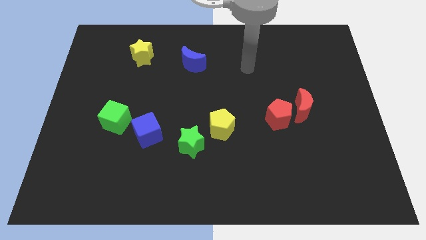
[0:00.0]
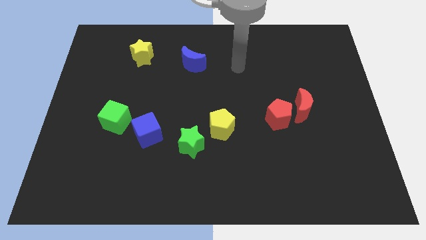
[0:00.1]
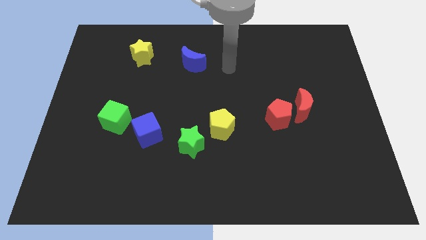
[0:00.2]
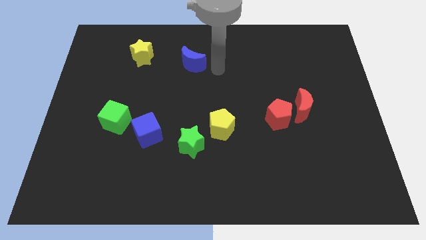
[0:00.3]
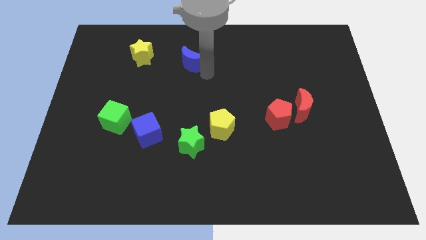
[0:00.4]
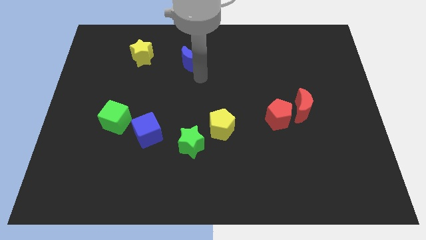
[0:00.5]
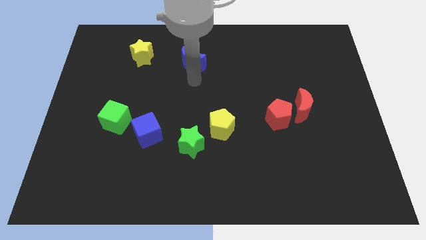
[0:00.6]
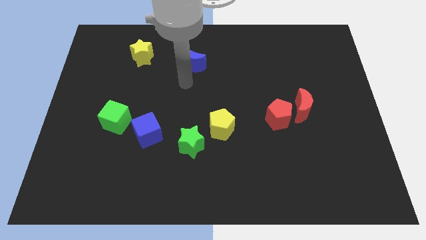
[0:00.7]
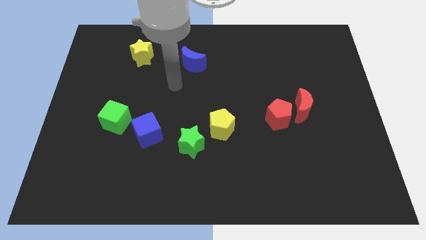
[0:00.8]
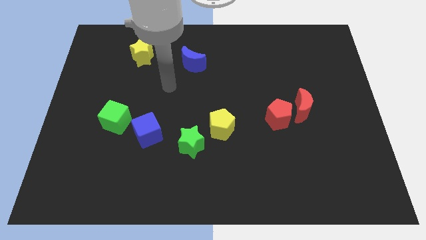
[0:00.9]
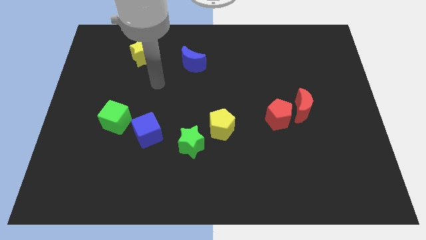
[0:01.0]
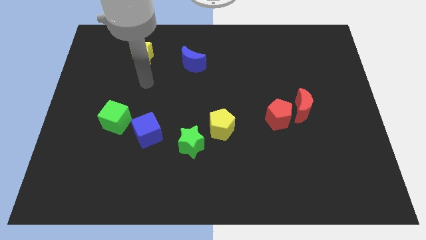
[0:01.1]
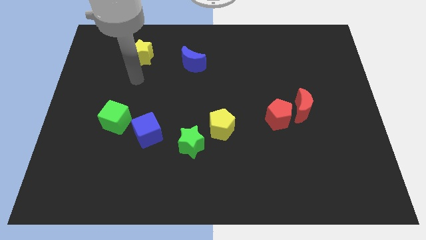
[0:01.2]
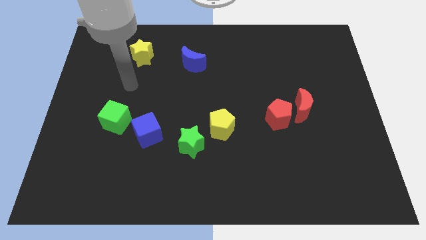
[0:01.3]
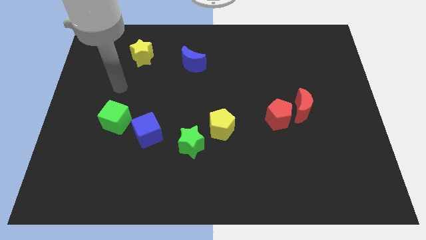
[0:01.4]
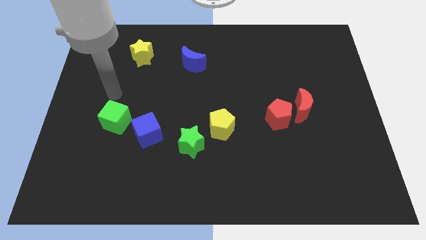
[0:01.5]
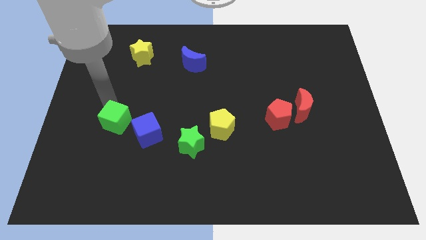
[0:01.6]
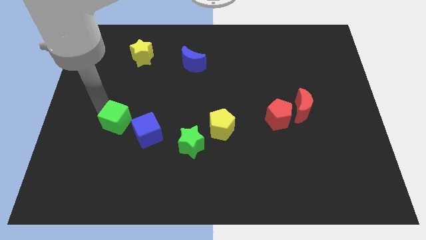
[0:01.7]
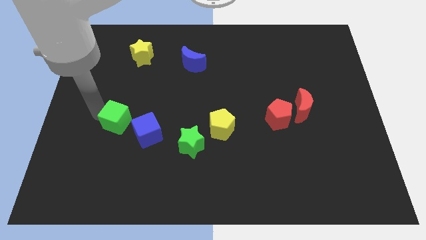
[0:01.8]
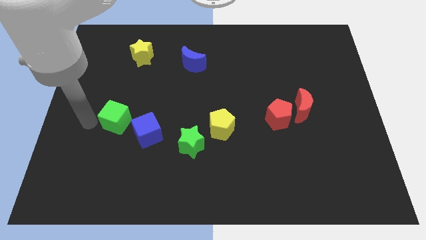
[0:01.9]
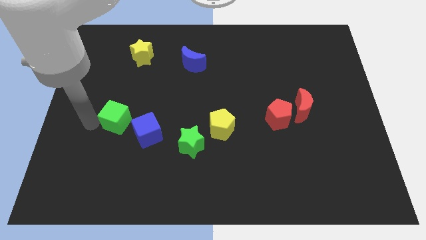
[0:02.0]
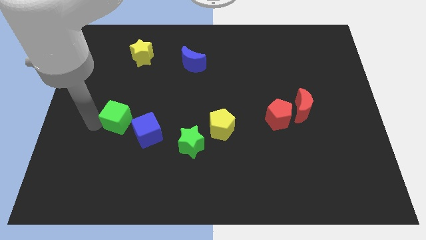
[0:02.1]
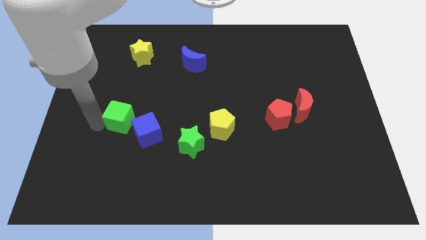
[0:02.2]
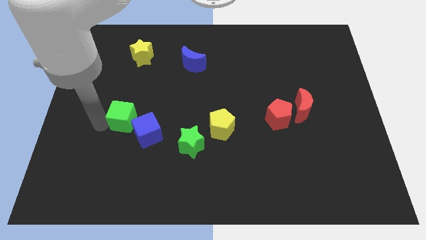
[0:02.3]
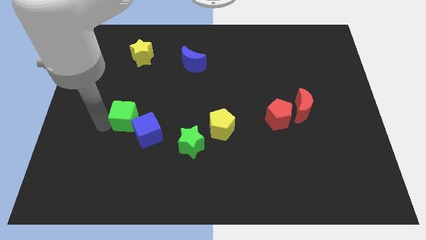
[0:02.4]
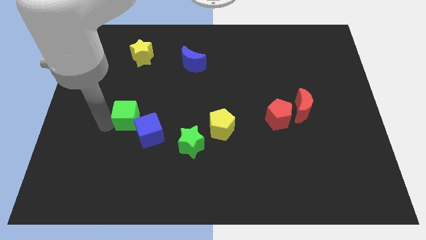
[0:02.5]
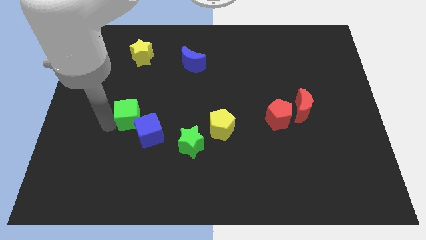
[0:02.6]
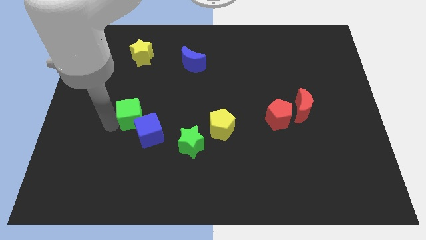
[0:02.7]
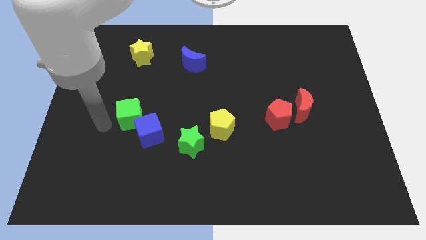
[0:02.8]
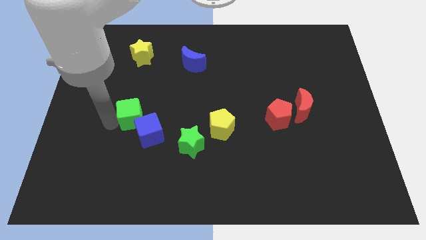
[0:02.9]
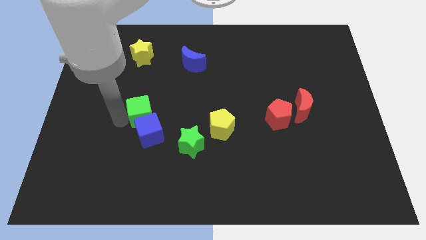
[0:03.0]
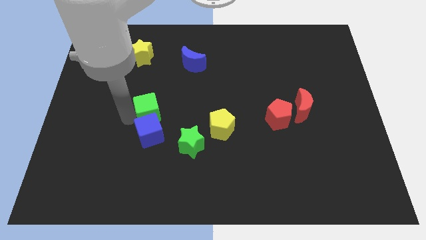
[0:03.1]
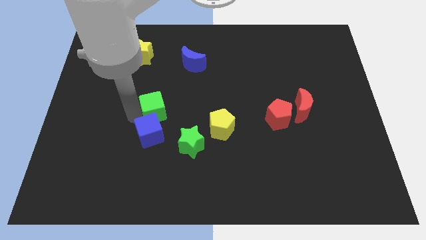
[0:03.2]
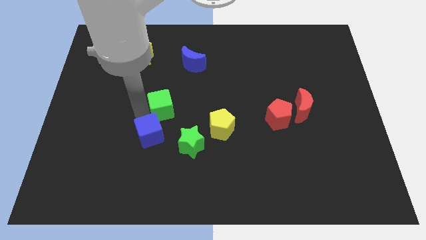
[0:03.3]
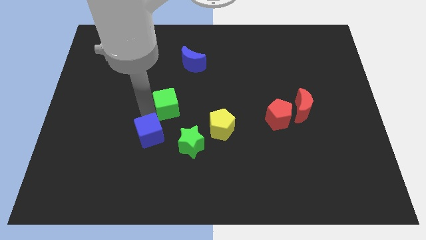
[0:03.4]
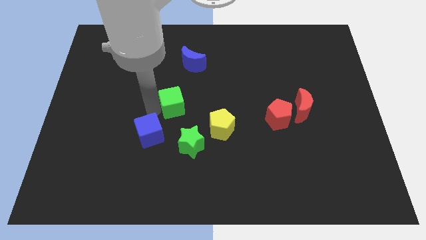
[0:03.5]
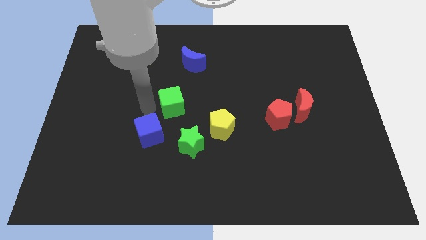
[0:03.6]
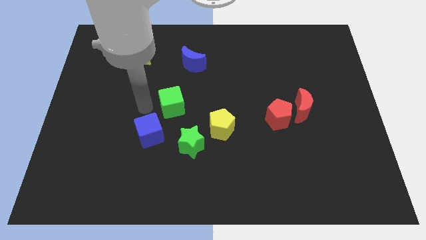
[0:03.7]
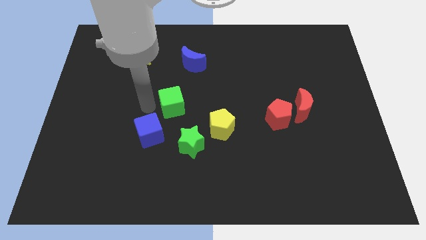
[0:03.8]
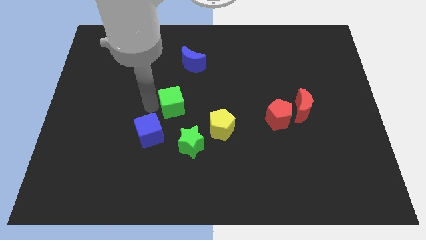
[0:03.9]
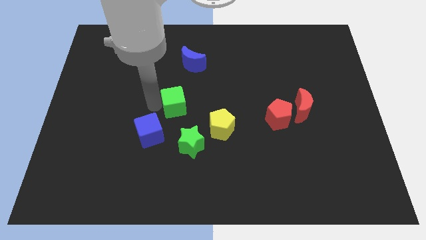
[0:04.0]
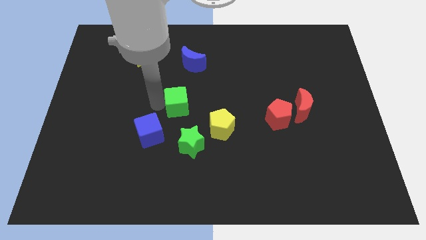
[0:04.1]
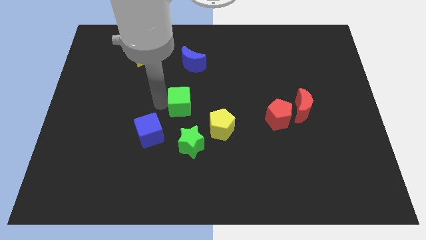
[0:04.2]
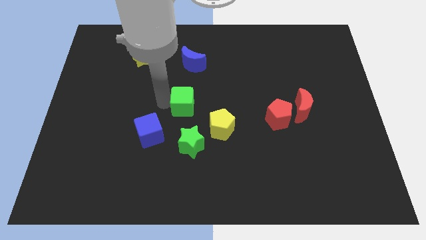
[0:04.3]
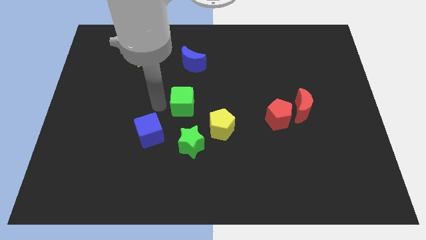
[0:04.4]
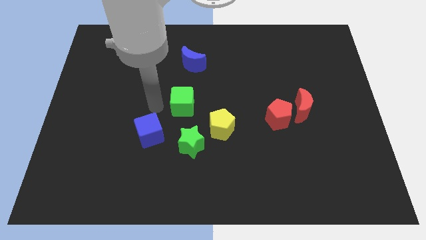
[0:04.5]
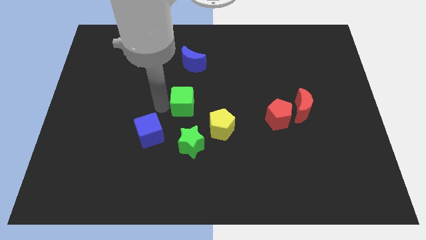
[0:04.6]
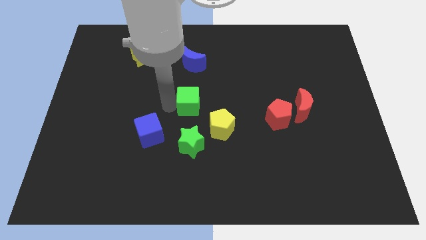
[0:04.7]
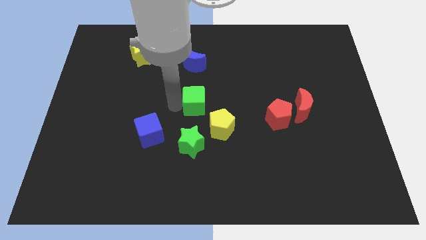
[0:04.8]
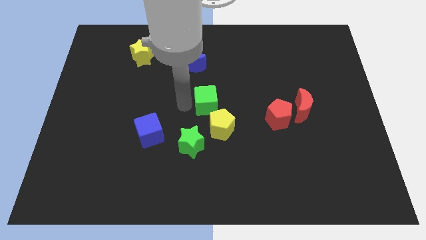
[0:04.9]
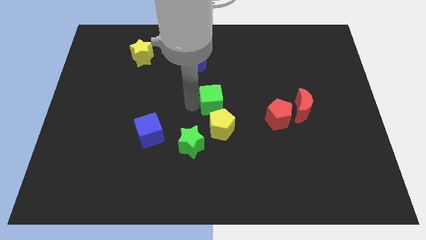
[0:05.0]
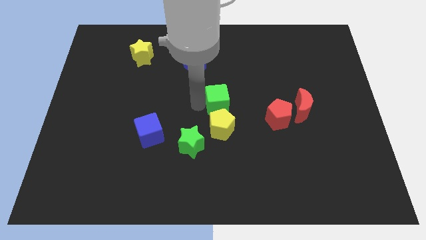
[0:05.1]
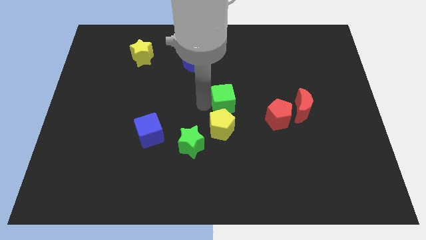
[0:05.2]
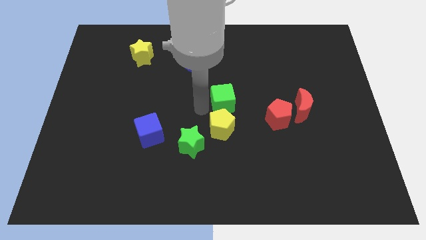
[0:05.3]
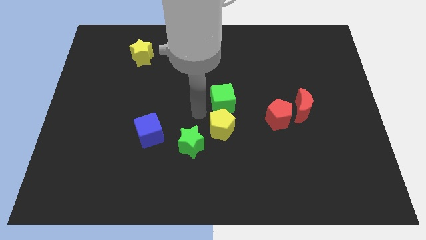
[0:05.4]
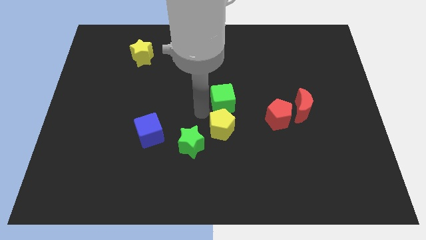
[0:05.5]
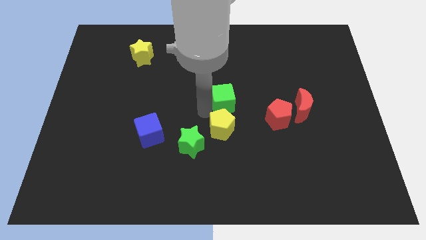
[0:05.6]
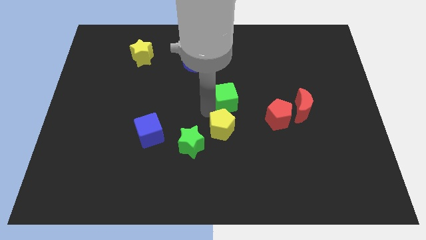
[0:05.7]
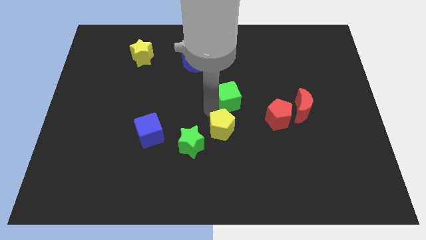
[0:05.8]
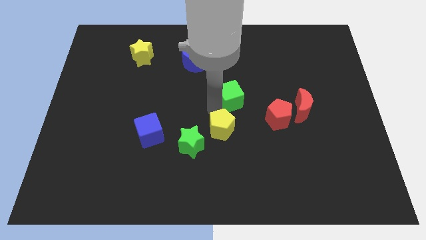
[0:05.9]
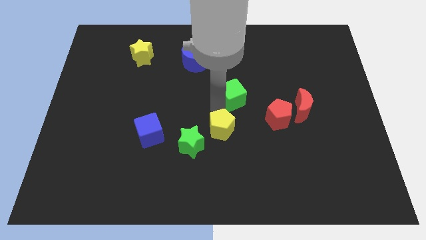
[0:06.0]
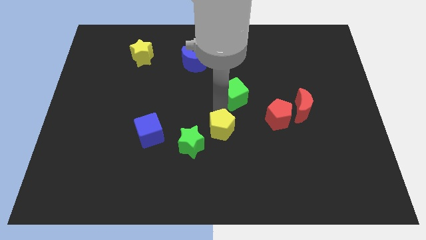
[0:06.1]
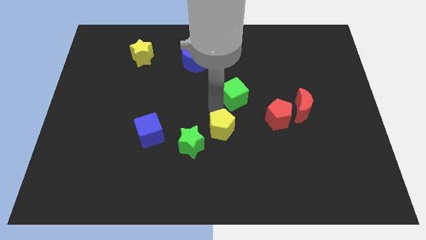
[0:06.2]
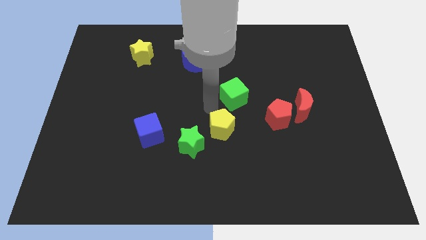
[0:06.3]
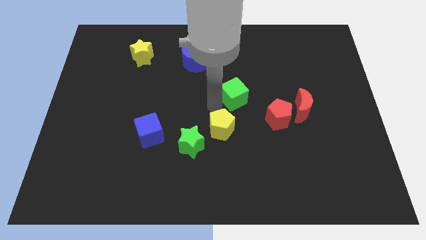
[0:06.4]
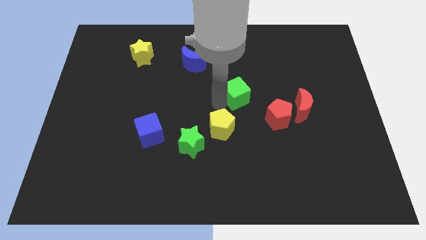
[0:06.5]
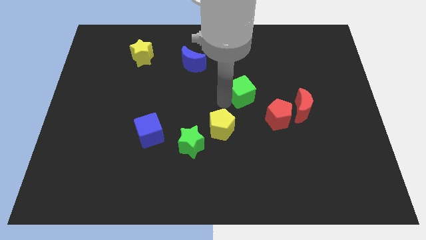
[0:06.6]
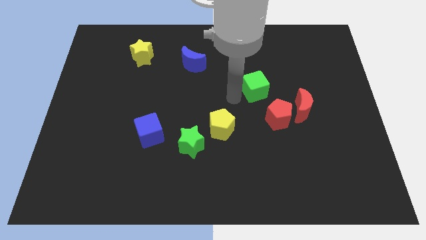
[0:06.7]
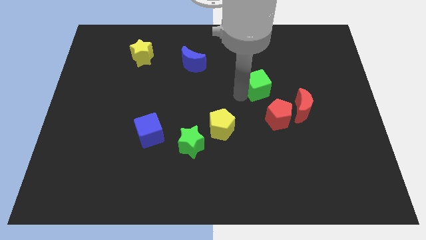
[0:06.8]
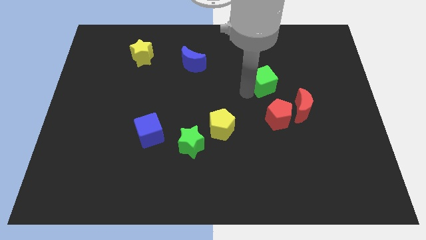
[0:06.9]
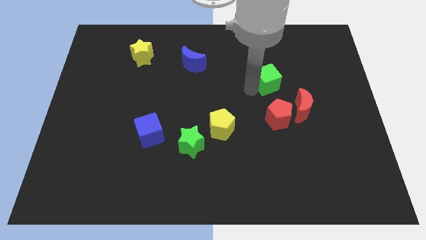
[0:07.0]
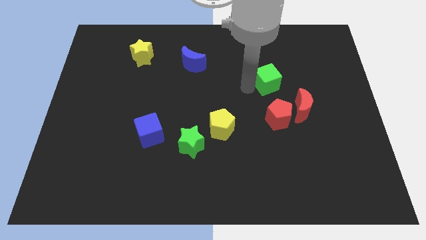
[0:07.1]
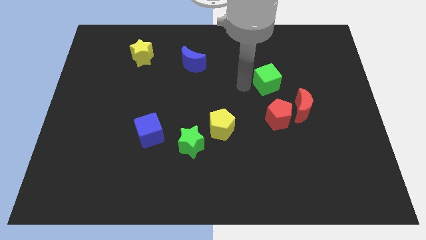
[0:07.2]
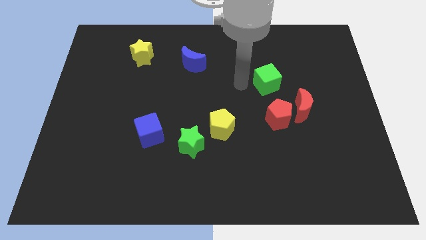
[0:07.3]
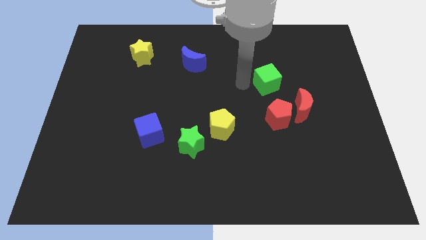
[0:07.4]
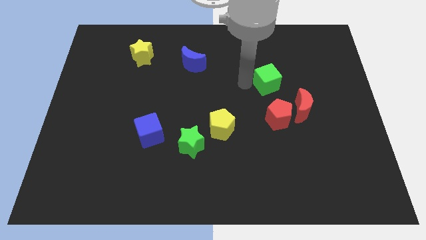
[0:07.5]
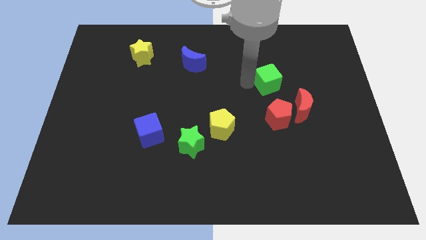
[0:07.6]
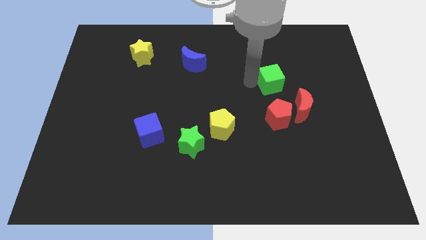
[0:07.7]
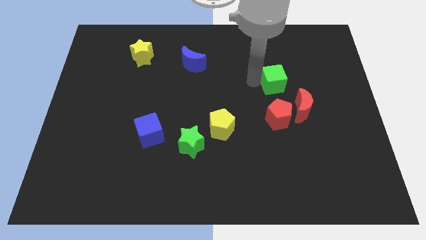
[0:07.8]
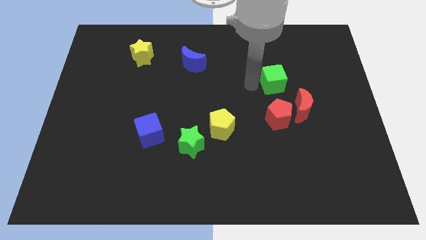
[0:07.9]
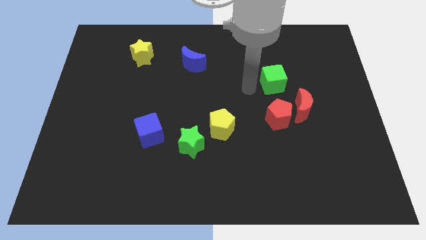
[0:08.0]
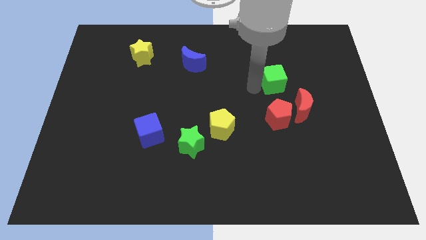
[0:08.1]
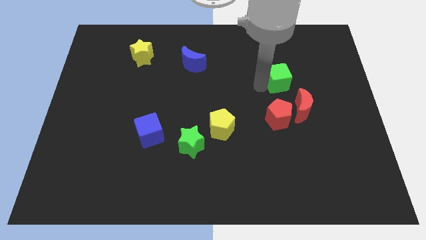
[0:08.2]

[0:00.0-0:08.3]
push the green cube to the top side of the red moon
